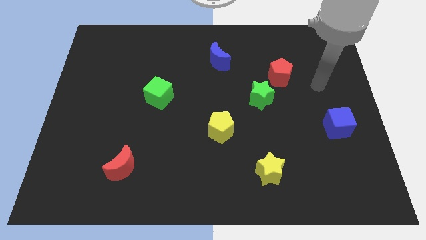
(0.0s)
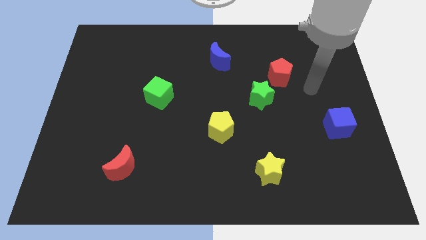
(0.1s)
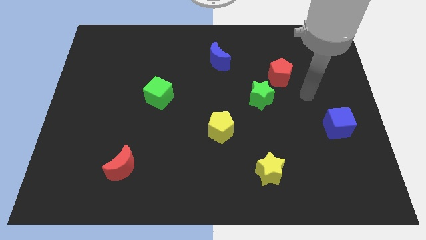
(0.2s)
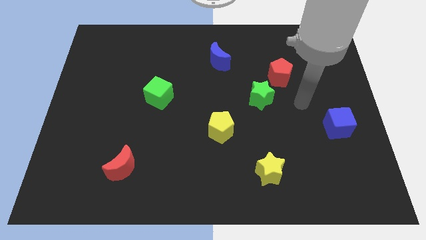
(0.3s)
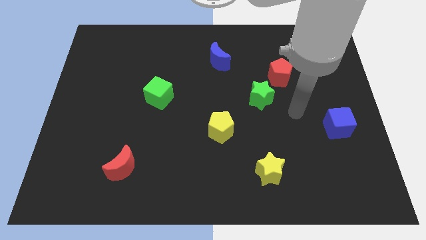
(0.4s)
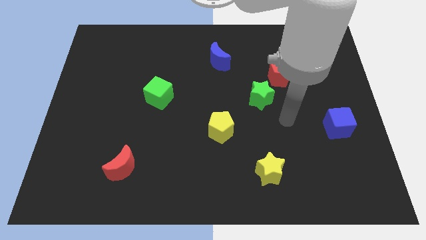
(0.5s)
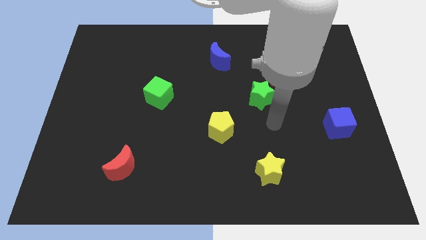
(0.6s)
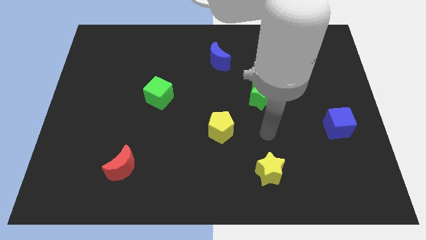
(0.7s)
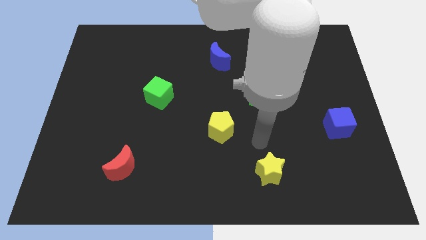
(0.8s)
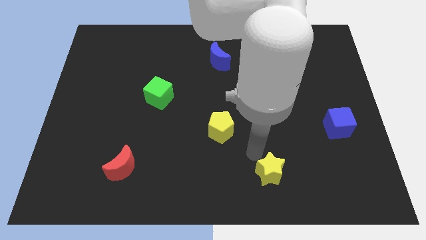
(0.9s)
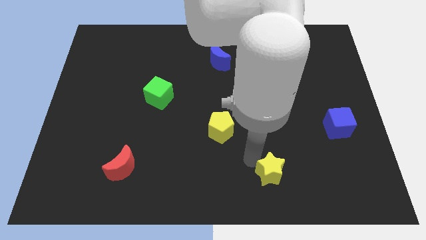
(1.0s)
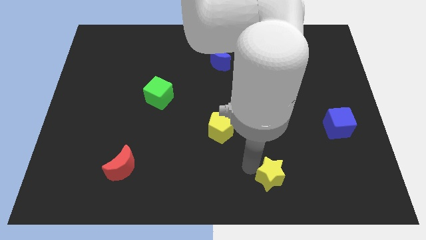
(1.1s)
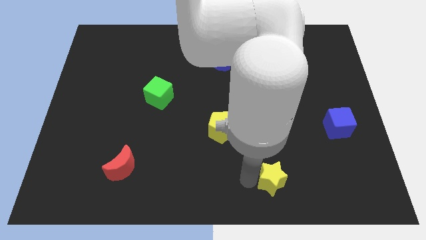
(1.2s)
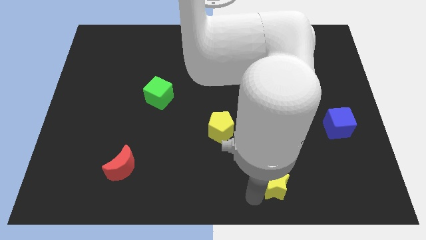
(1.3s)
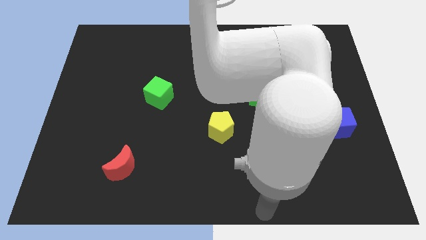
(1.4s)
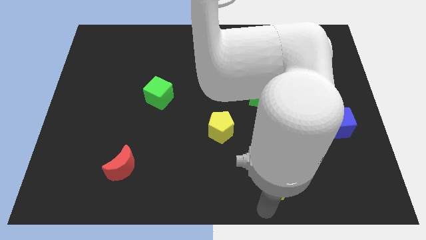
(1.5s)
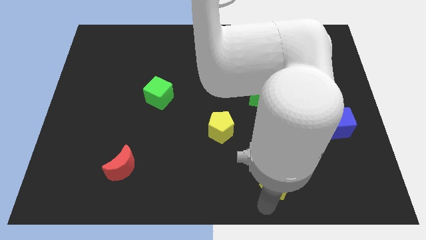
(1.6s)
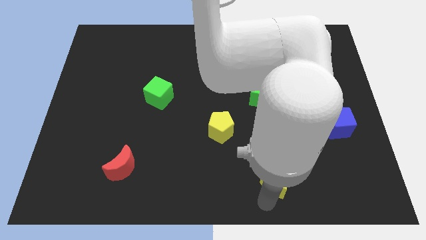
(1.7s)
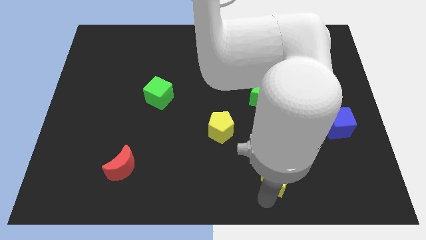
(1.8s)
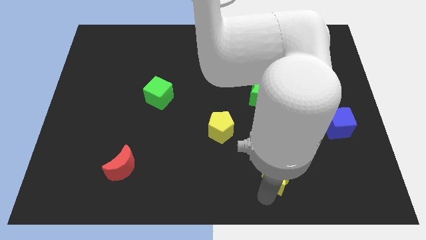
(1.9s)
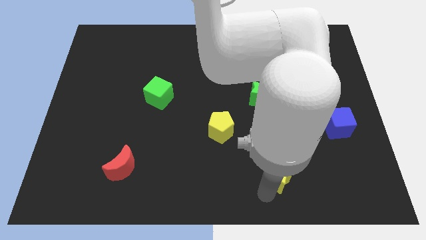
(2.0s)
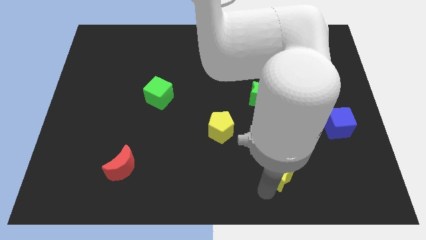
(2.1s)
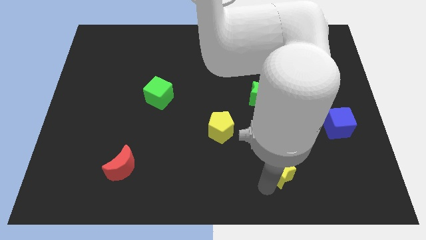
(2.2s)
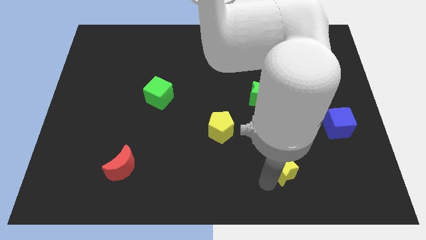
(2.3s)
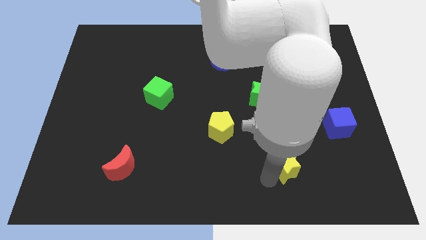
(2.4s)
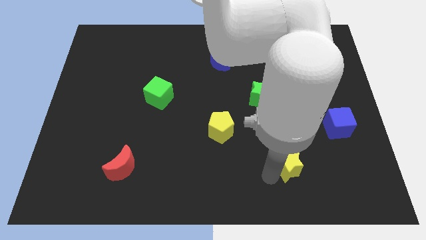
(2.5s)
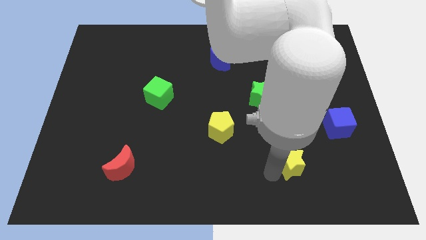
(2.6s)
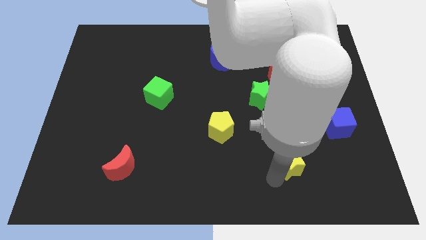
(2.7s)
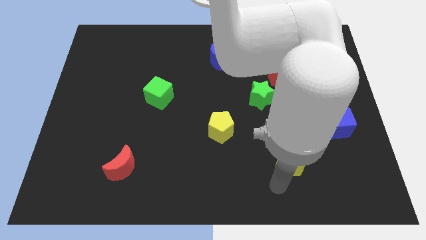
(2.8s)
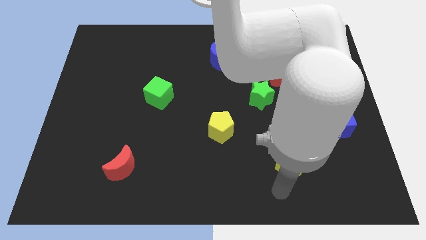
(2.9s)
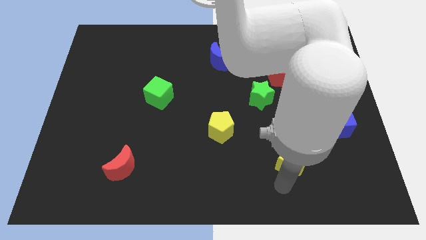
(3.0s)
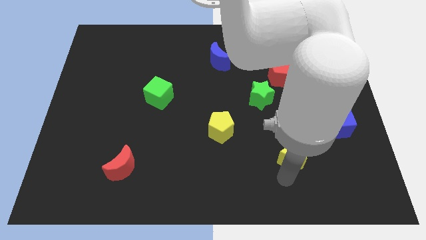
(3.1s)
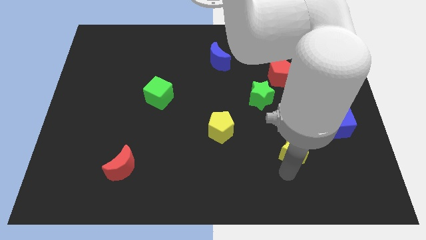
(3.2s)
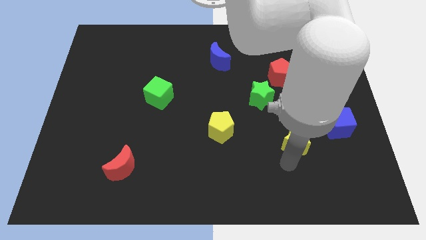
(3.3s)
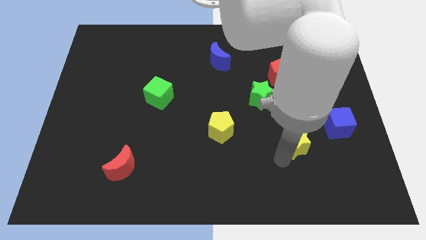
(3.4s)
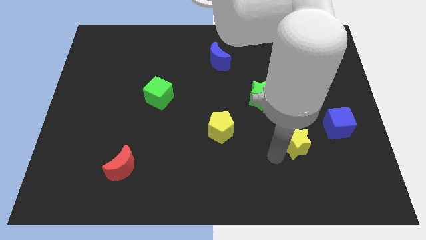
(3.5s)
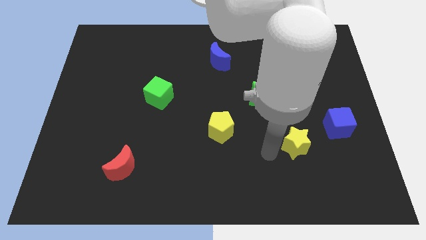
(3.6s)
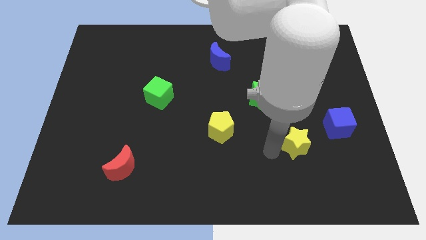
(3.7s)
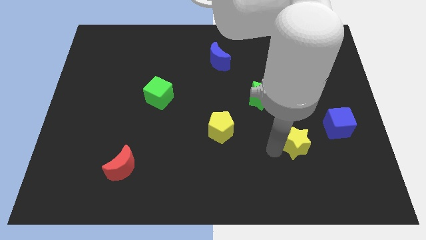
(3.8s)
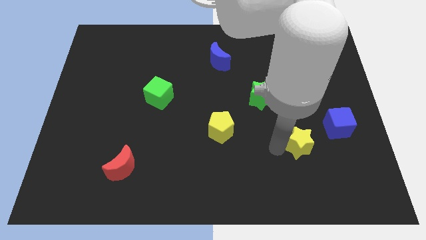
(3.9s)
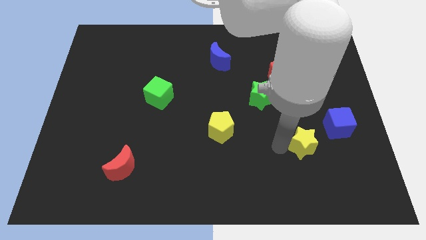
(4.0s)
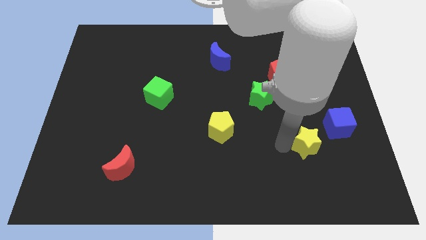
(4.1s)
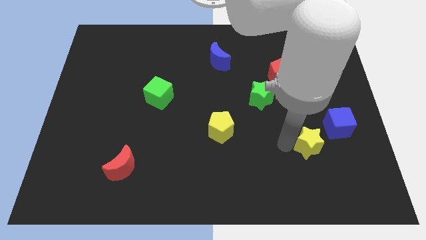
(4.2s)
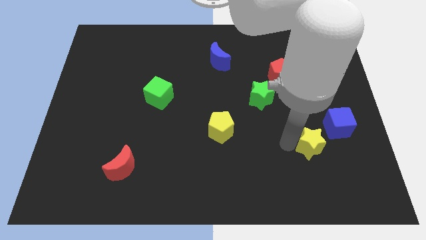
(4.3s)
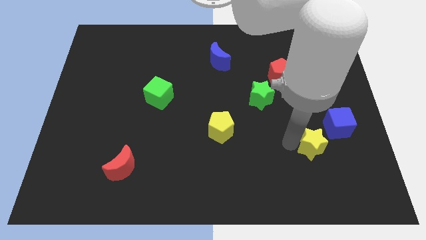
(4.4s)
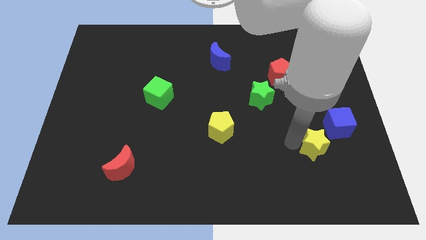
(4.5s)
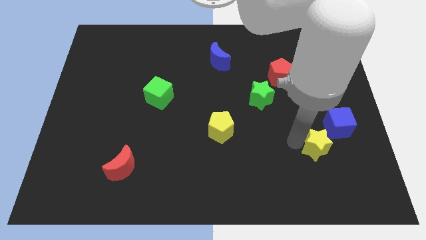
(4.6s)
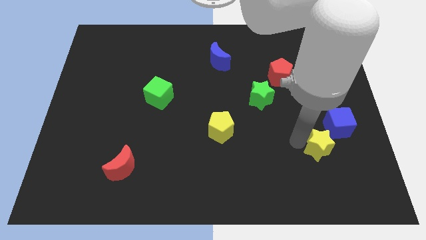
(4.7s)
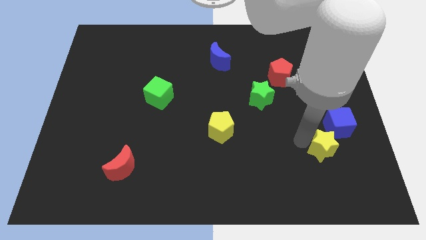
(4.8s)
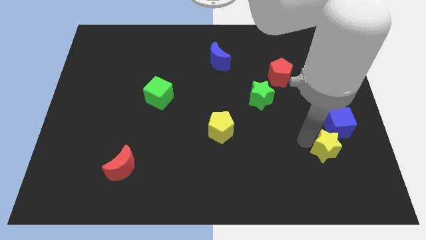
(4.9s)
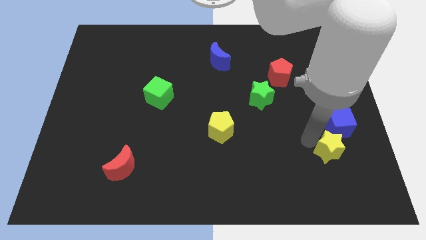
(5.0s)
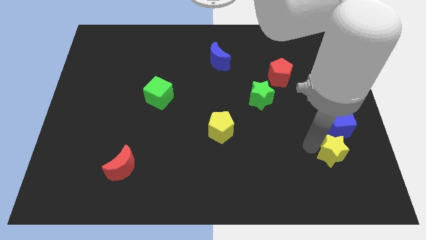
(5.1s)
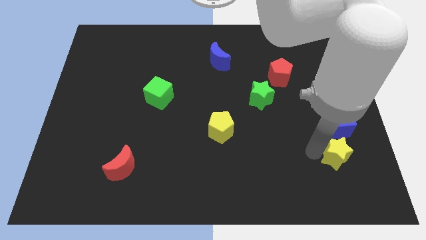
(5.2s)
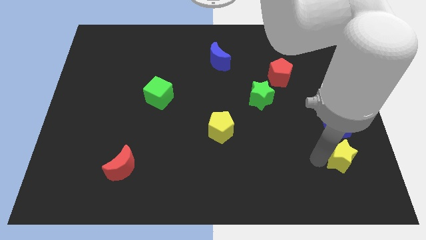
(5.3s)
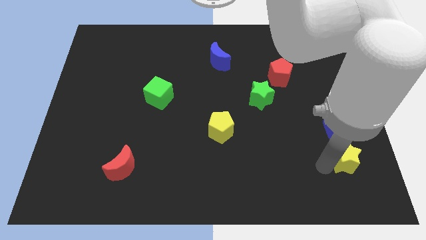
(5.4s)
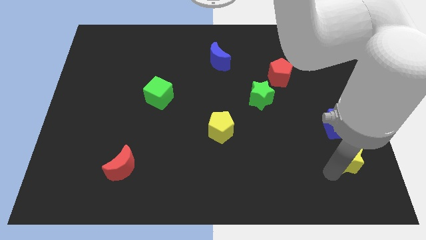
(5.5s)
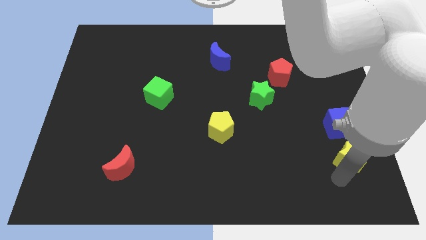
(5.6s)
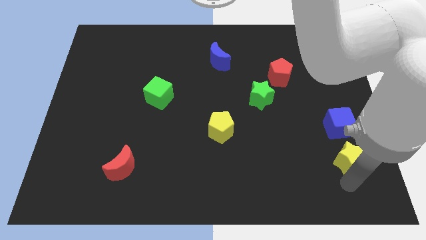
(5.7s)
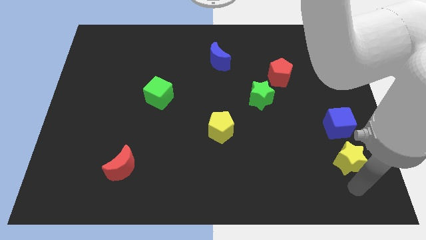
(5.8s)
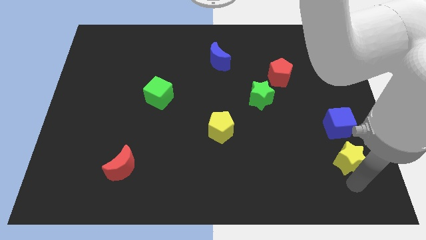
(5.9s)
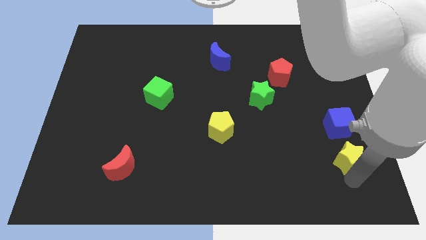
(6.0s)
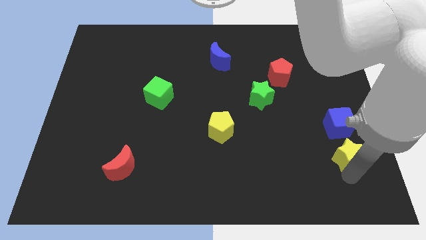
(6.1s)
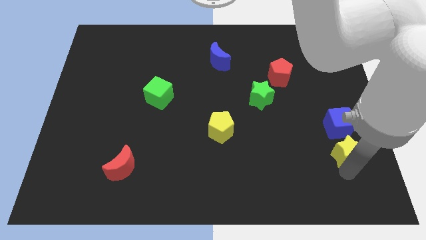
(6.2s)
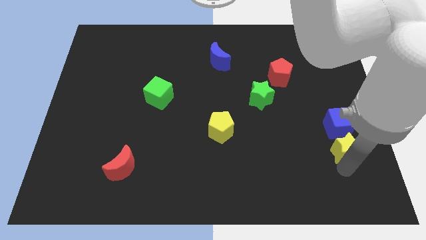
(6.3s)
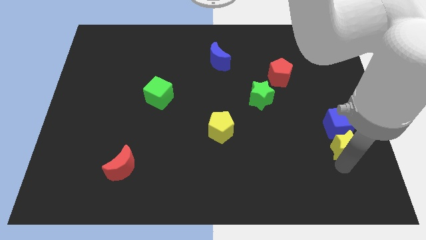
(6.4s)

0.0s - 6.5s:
slide the yellow star close to the blue cube

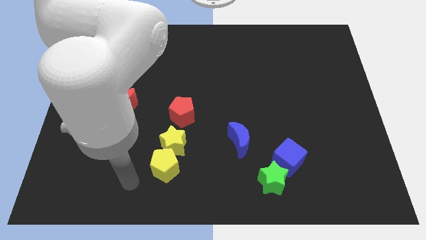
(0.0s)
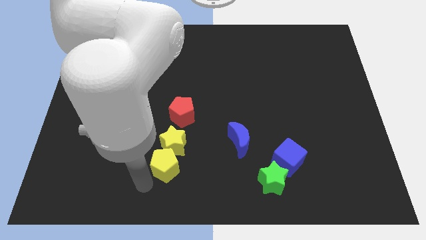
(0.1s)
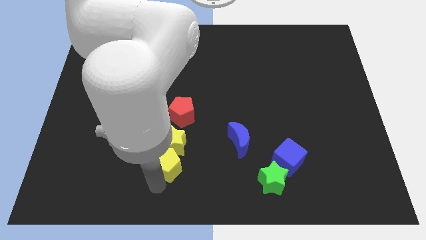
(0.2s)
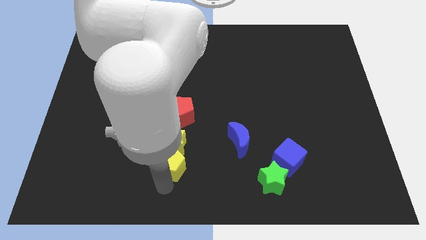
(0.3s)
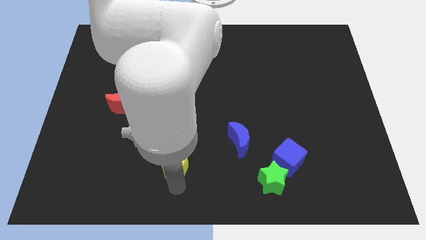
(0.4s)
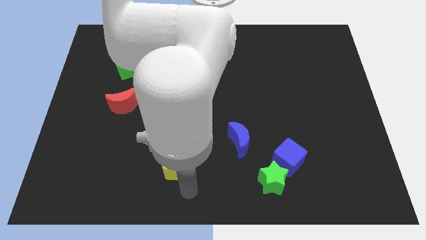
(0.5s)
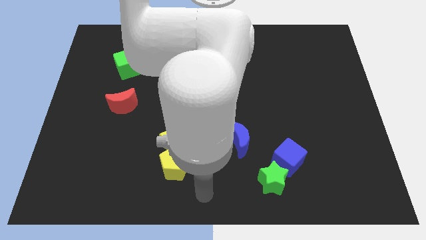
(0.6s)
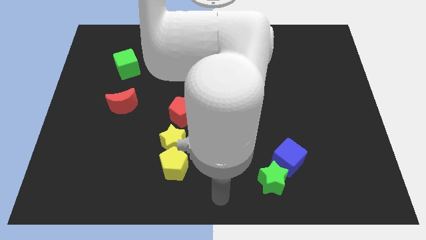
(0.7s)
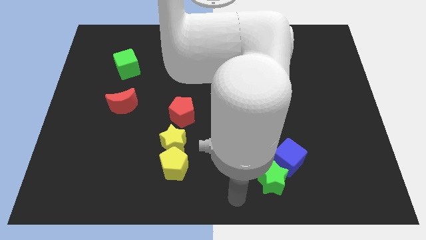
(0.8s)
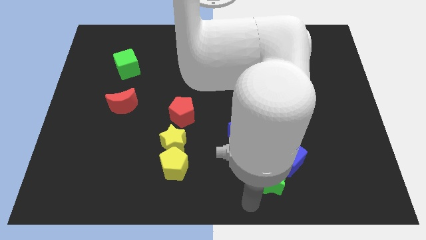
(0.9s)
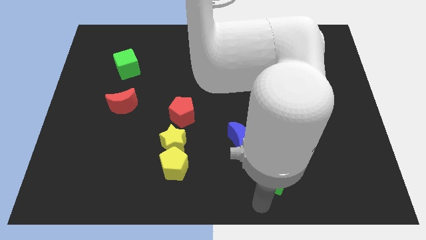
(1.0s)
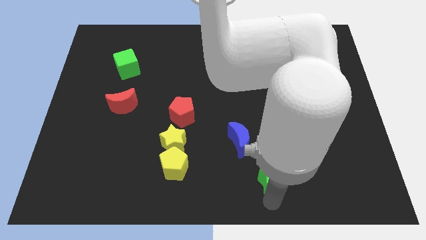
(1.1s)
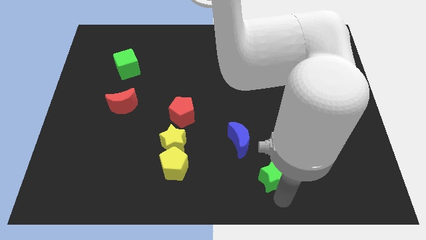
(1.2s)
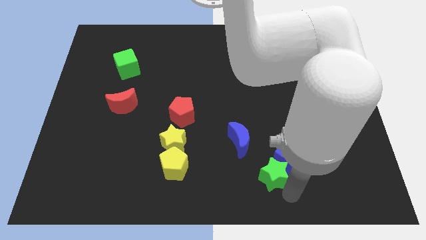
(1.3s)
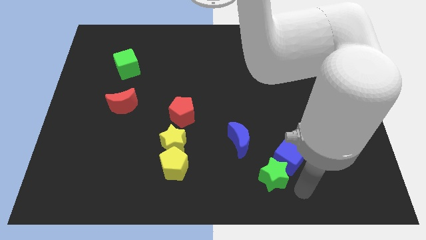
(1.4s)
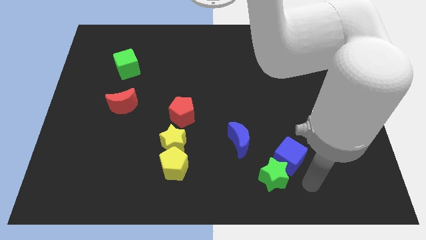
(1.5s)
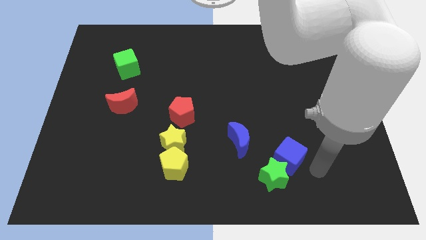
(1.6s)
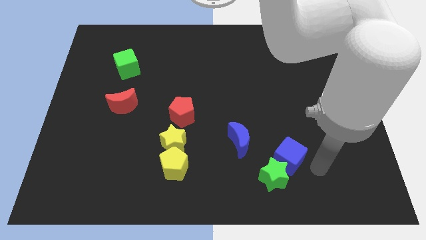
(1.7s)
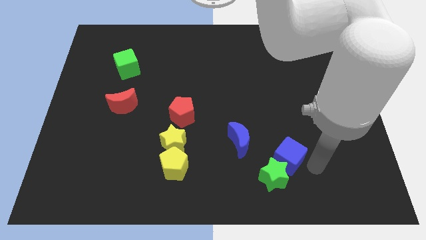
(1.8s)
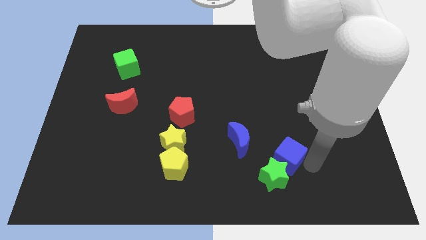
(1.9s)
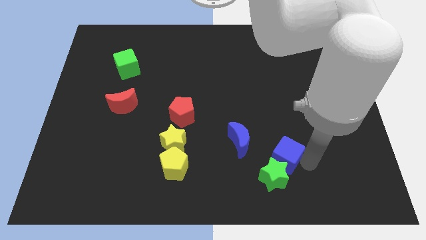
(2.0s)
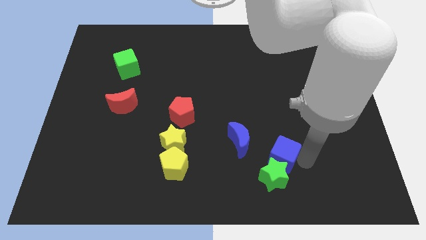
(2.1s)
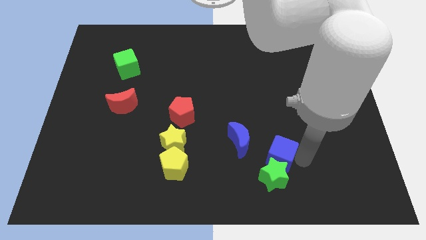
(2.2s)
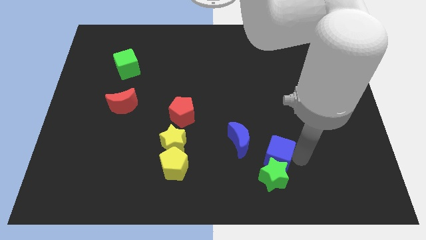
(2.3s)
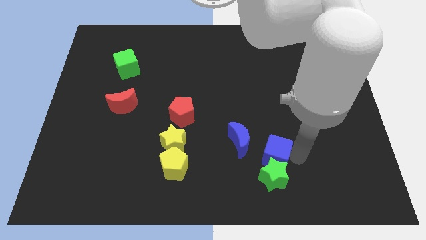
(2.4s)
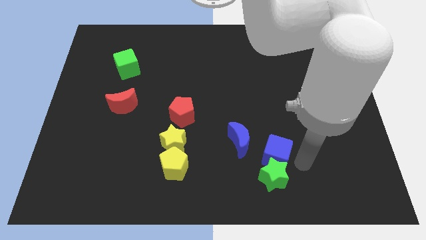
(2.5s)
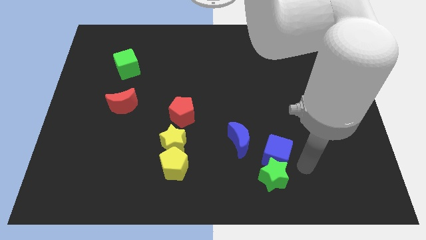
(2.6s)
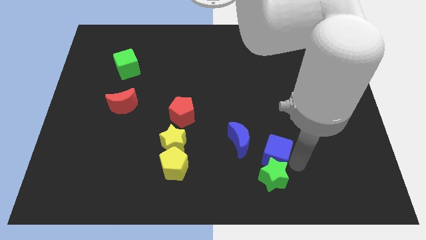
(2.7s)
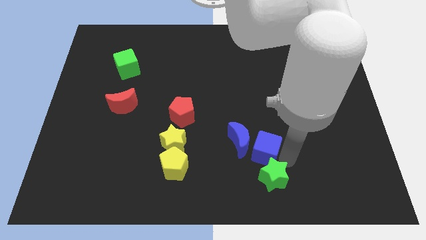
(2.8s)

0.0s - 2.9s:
slide the blue cube to the blue moon
